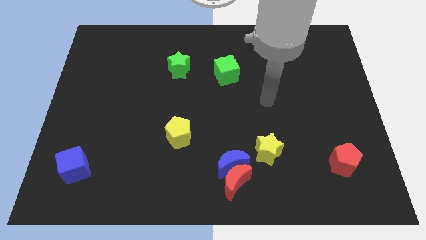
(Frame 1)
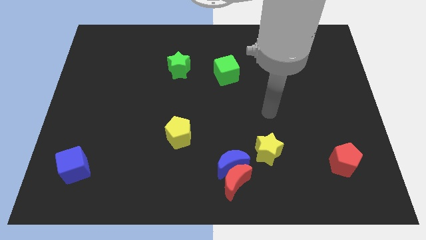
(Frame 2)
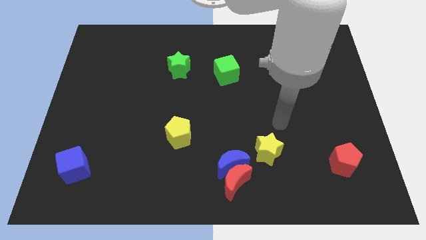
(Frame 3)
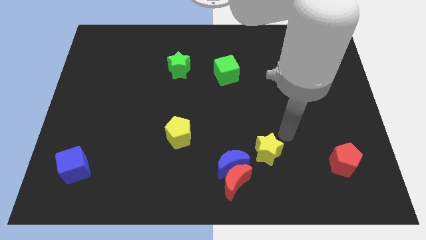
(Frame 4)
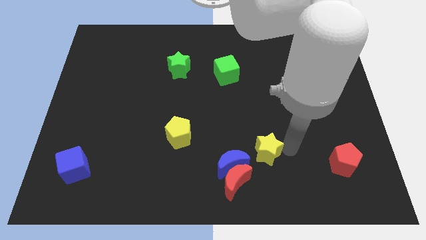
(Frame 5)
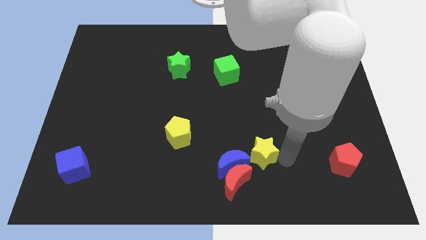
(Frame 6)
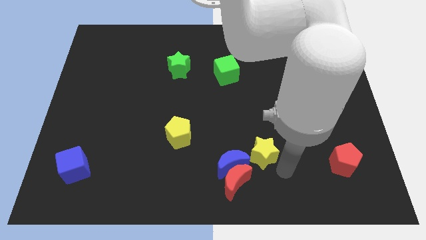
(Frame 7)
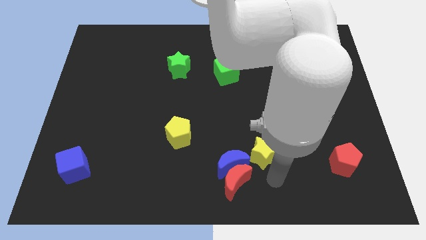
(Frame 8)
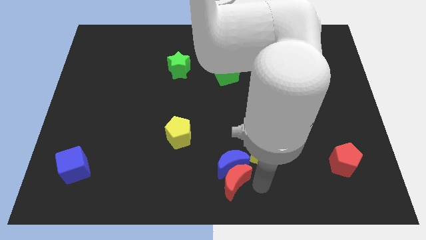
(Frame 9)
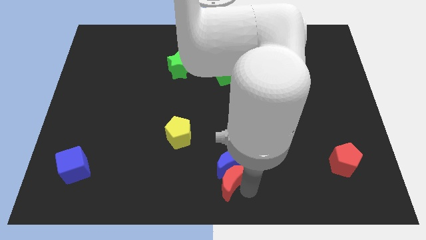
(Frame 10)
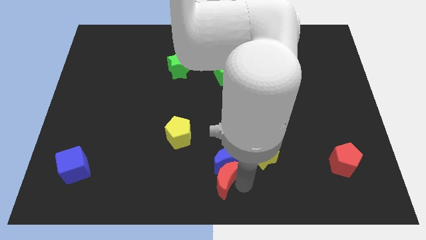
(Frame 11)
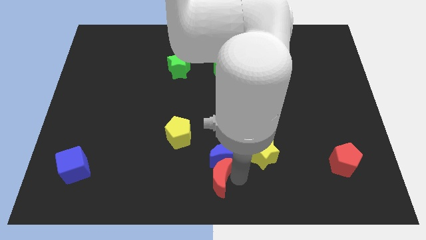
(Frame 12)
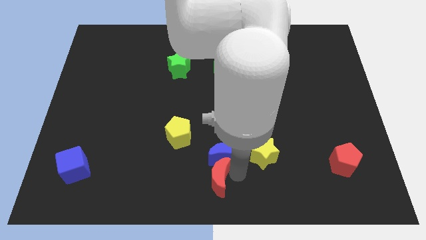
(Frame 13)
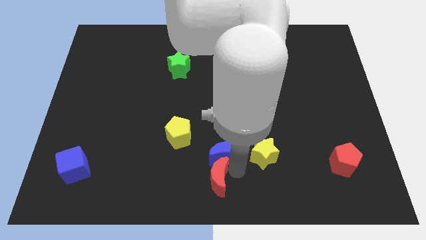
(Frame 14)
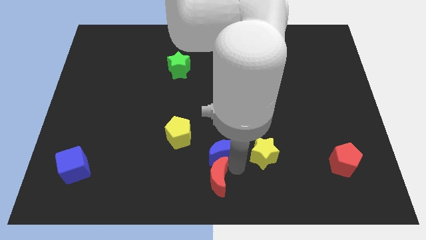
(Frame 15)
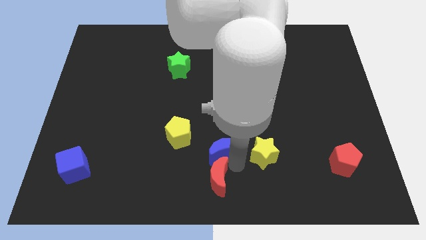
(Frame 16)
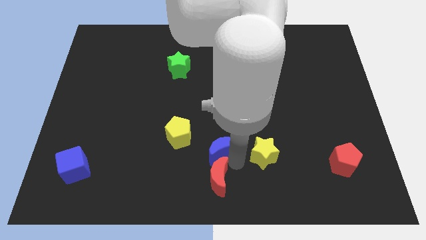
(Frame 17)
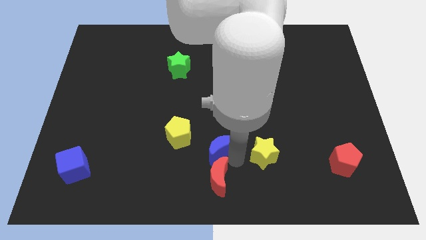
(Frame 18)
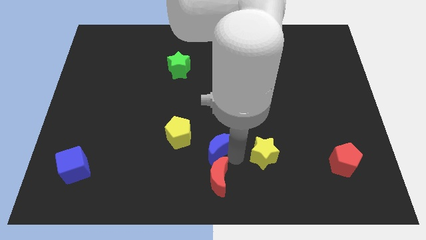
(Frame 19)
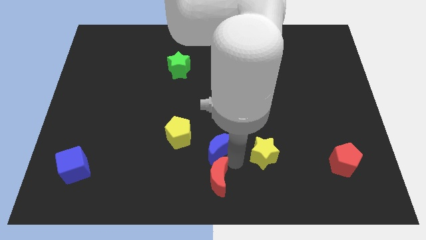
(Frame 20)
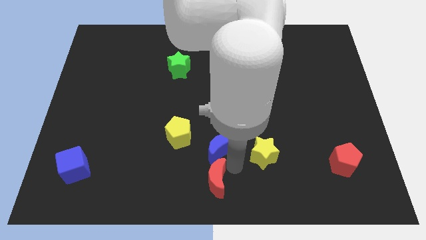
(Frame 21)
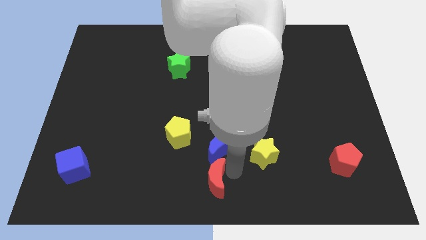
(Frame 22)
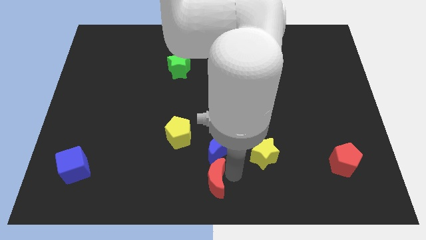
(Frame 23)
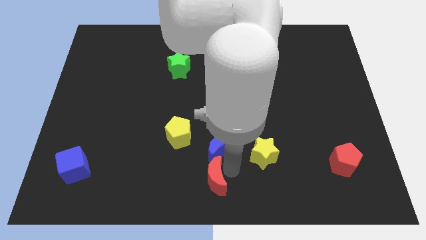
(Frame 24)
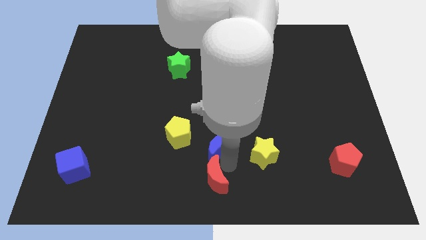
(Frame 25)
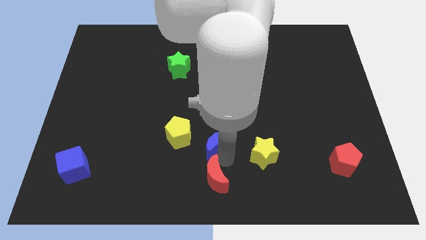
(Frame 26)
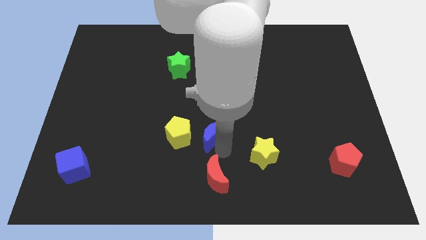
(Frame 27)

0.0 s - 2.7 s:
slide the blue moon a little bit upwards and left diagonally

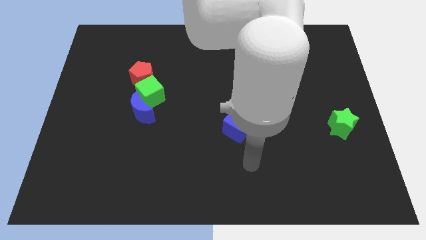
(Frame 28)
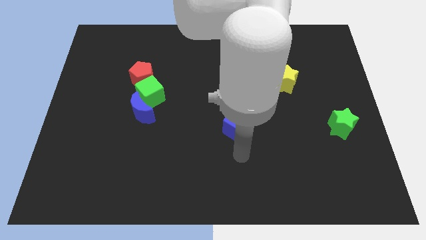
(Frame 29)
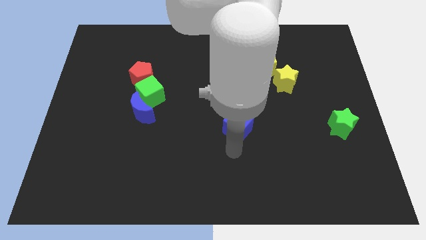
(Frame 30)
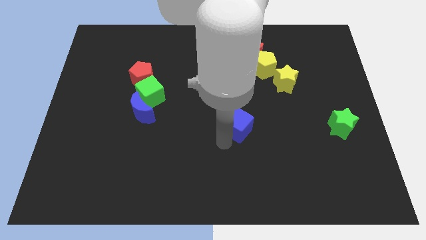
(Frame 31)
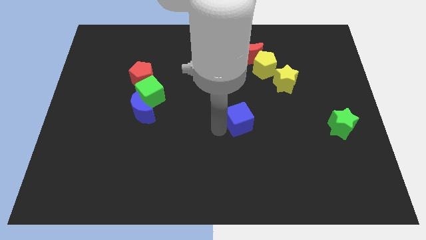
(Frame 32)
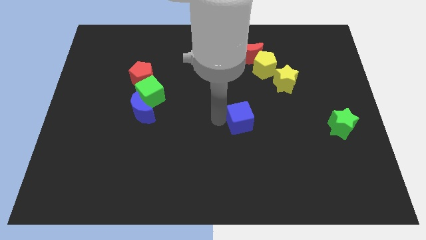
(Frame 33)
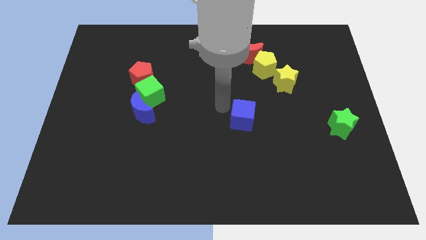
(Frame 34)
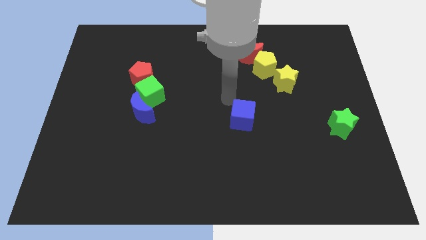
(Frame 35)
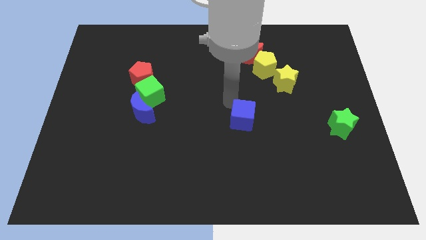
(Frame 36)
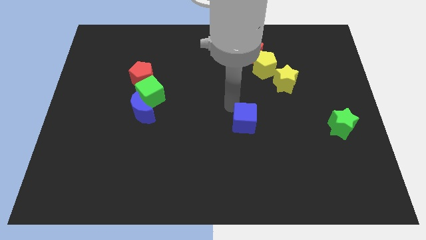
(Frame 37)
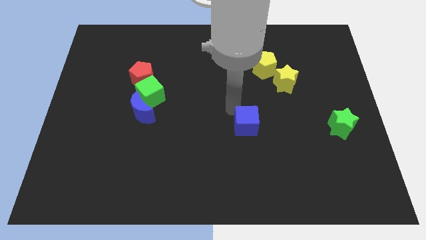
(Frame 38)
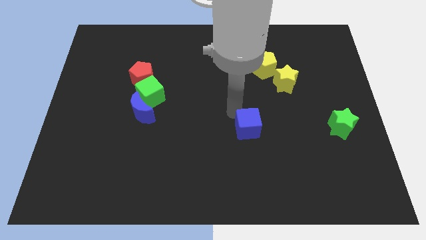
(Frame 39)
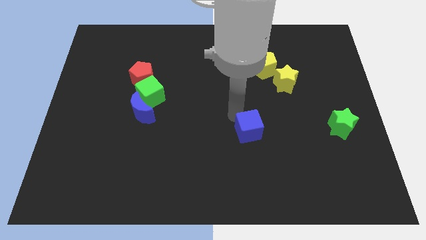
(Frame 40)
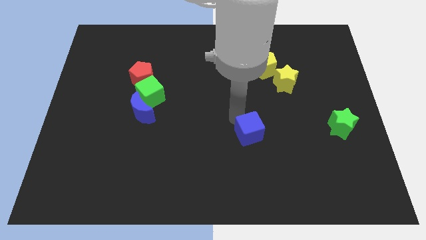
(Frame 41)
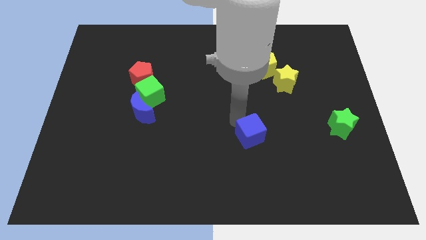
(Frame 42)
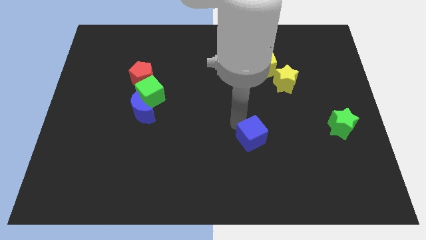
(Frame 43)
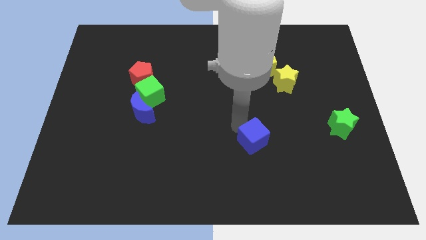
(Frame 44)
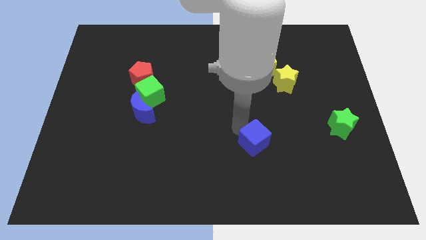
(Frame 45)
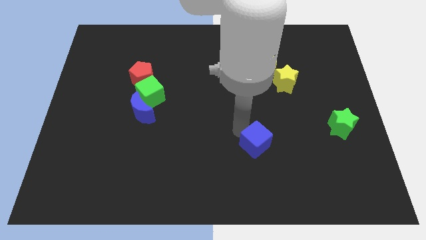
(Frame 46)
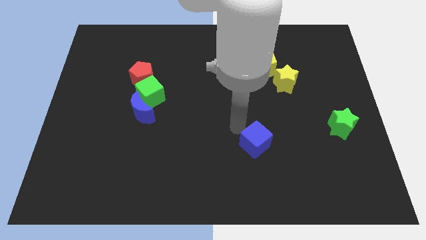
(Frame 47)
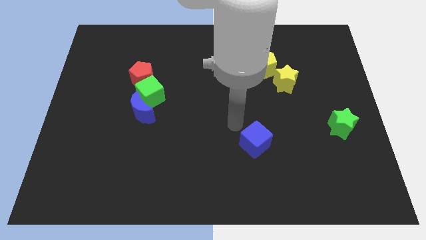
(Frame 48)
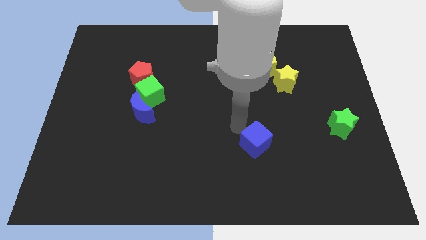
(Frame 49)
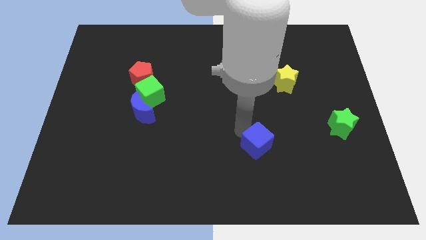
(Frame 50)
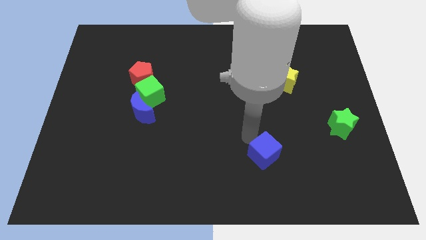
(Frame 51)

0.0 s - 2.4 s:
push the blue cube downwards and then to the right a little

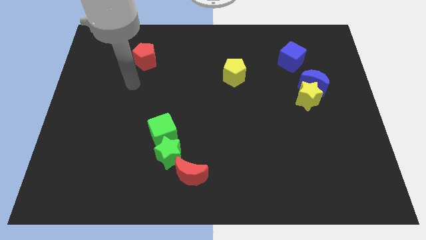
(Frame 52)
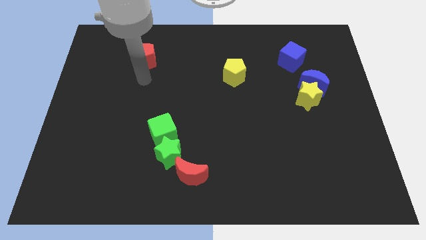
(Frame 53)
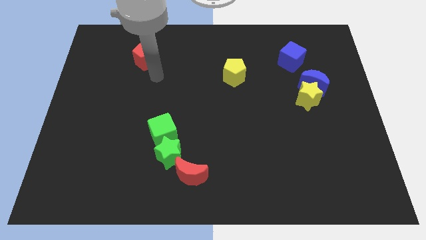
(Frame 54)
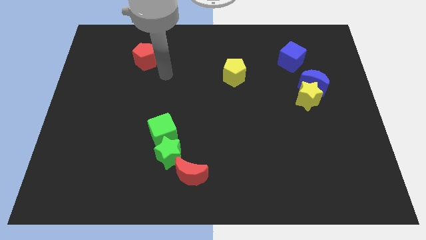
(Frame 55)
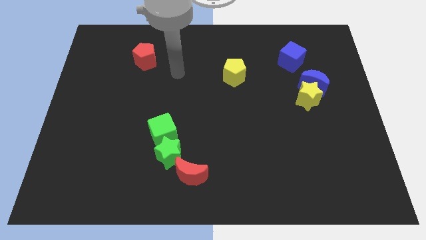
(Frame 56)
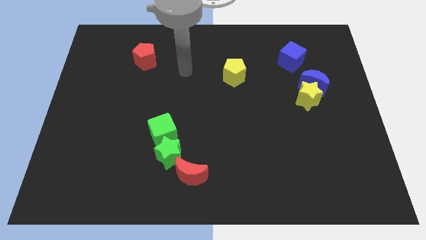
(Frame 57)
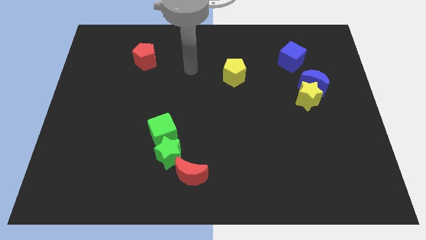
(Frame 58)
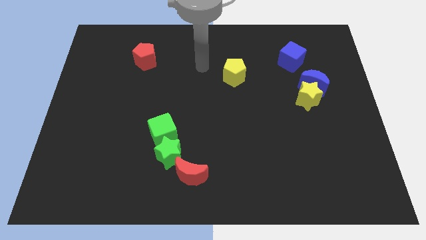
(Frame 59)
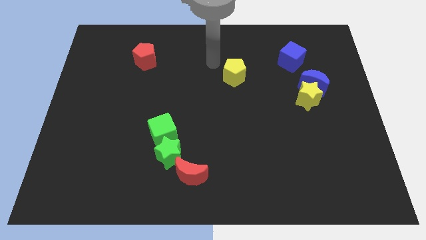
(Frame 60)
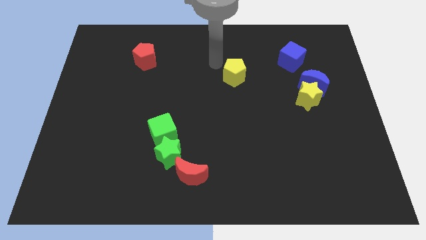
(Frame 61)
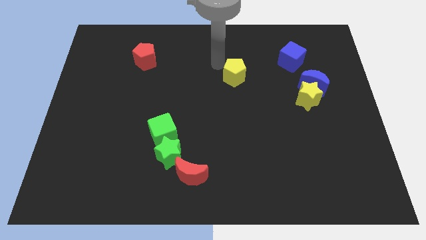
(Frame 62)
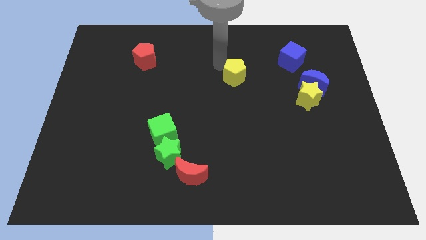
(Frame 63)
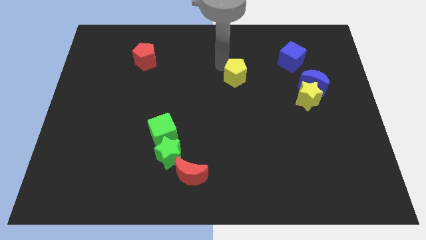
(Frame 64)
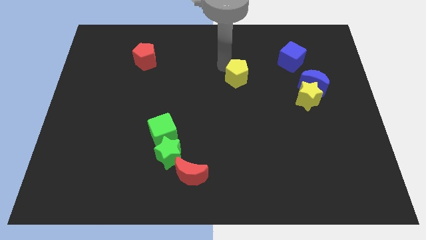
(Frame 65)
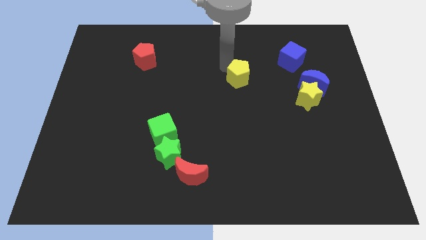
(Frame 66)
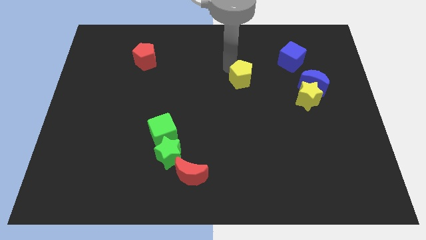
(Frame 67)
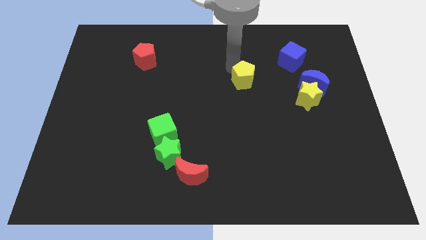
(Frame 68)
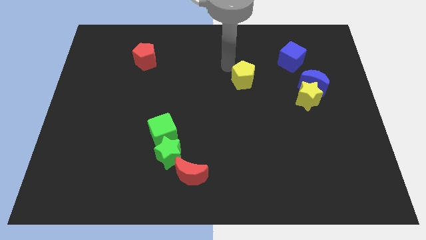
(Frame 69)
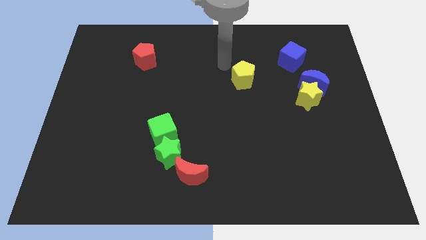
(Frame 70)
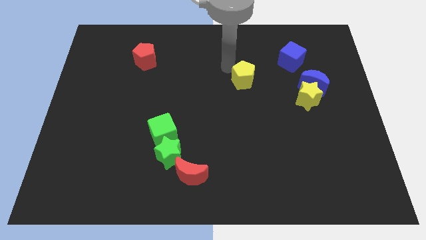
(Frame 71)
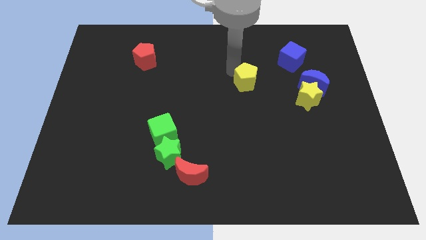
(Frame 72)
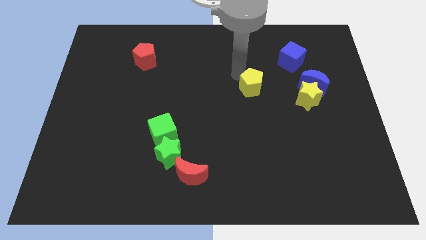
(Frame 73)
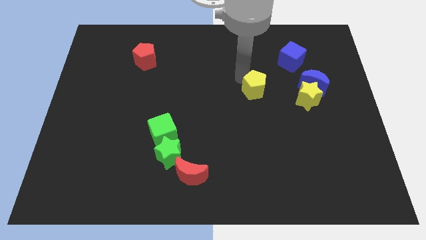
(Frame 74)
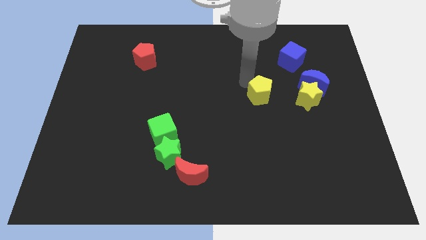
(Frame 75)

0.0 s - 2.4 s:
slide the yellow pentagon somewhat diagonally down and right

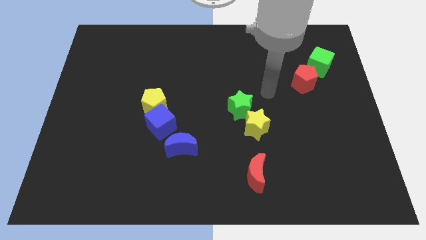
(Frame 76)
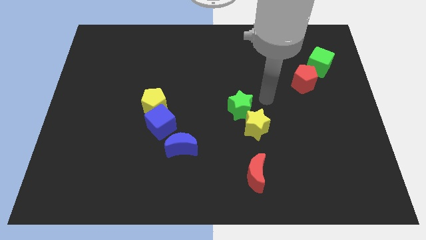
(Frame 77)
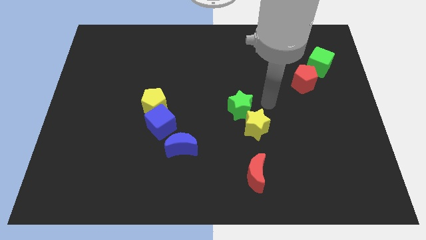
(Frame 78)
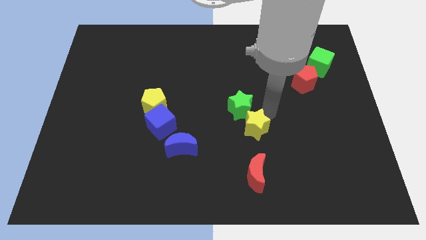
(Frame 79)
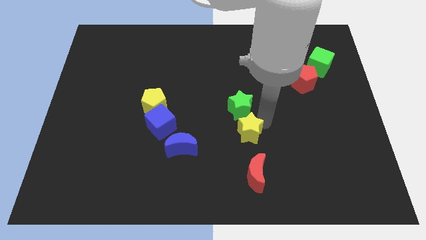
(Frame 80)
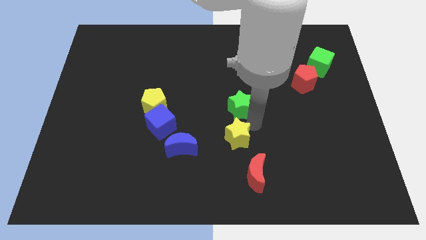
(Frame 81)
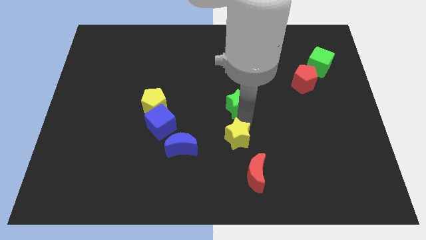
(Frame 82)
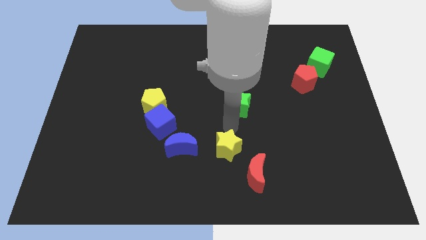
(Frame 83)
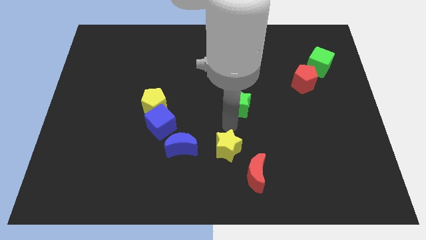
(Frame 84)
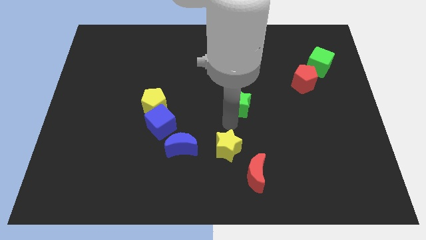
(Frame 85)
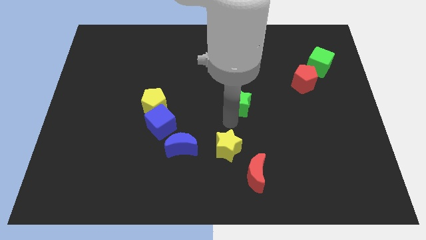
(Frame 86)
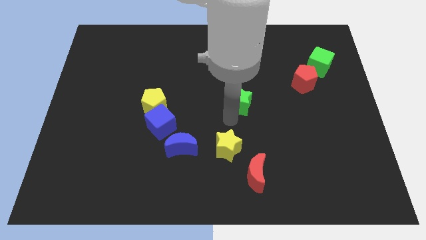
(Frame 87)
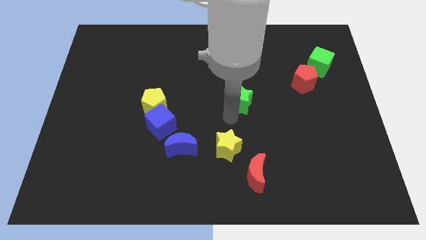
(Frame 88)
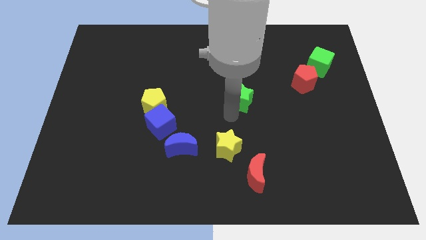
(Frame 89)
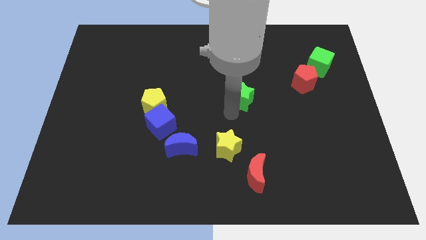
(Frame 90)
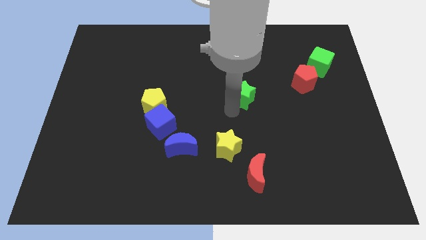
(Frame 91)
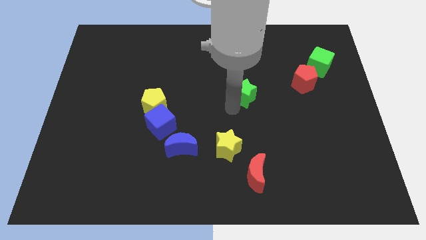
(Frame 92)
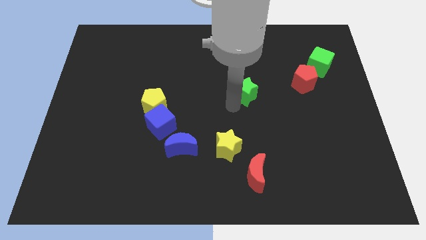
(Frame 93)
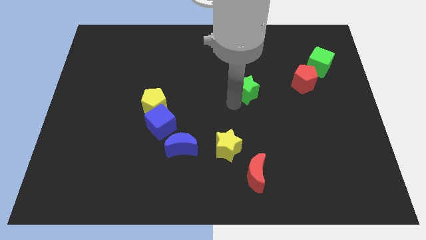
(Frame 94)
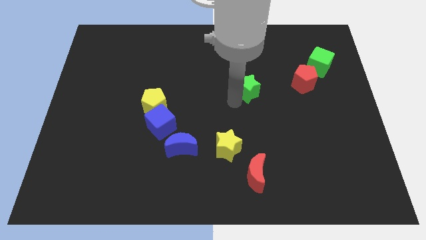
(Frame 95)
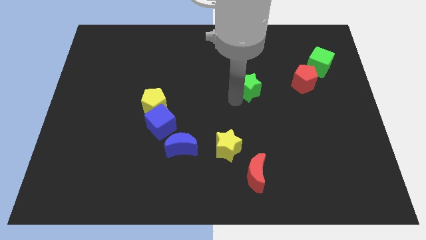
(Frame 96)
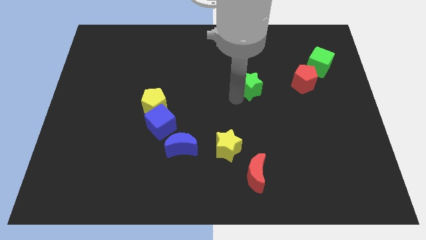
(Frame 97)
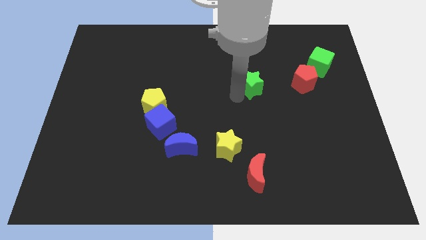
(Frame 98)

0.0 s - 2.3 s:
move the green star up and to the right diagonally a little
